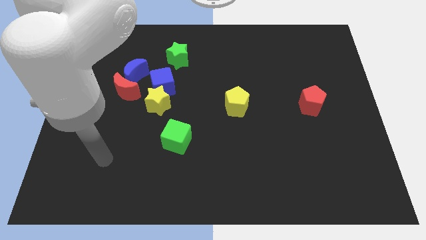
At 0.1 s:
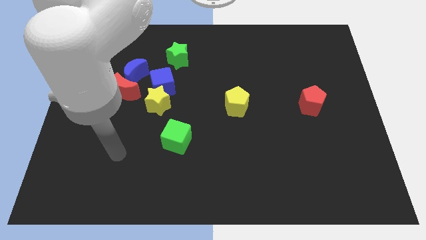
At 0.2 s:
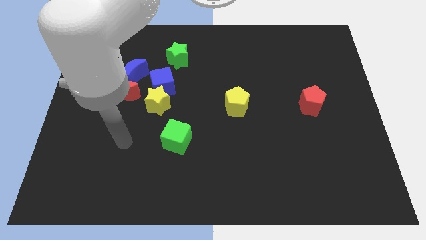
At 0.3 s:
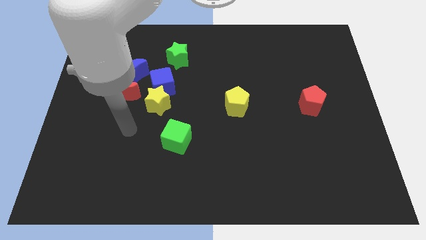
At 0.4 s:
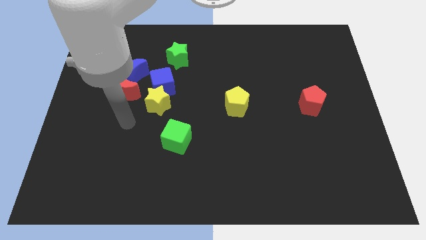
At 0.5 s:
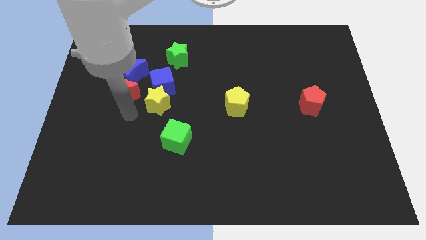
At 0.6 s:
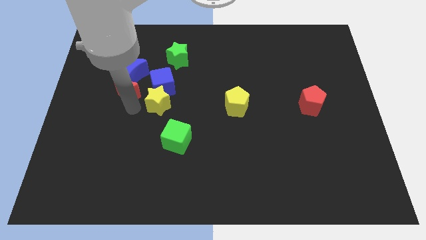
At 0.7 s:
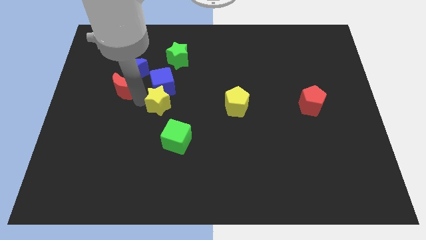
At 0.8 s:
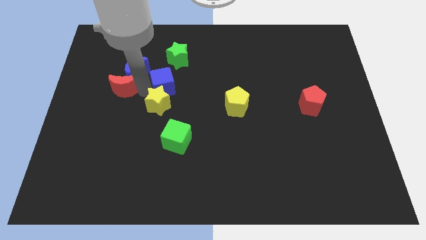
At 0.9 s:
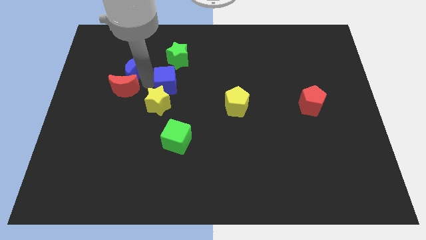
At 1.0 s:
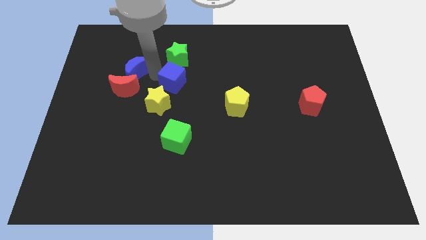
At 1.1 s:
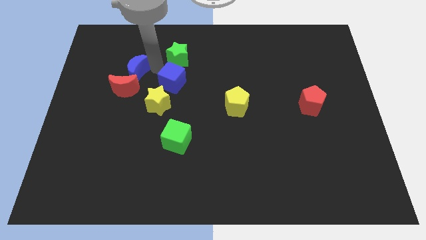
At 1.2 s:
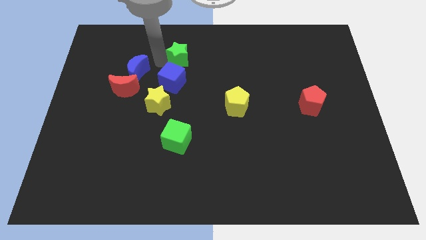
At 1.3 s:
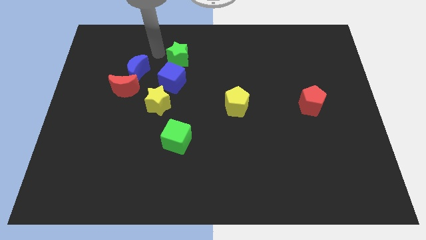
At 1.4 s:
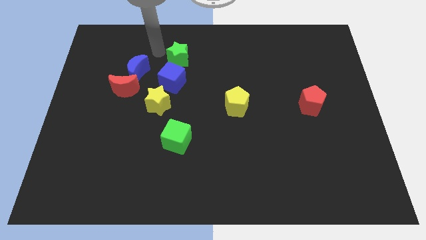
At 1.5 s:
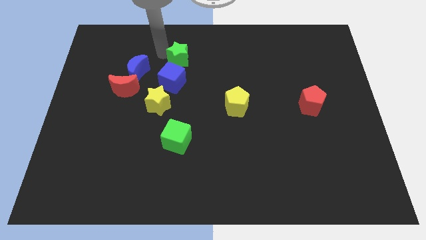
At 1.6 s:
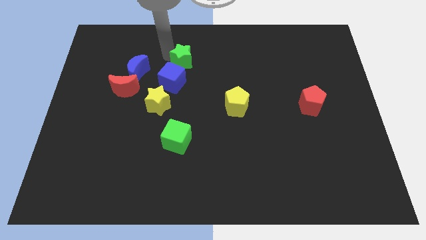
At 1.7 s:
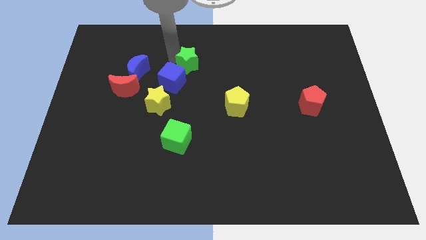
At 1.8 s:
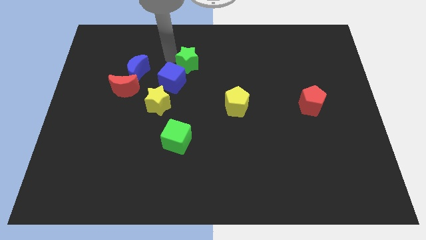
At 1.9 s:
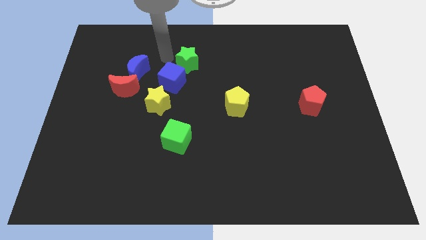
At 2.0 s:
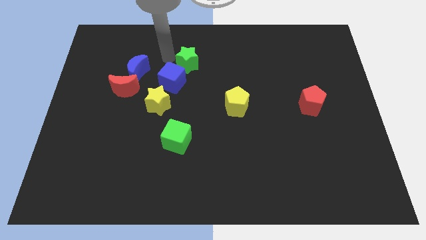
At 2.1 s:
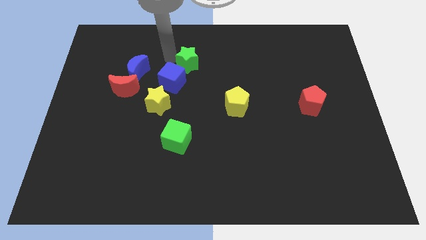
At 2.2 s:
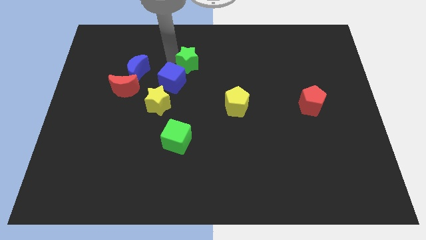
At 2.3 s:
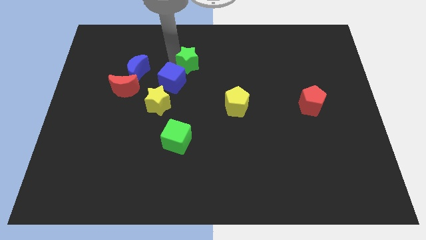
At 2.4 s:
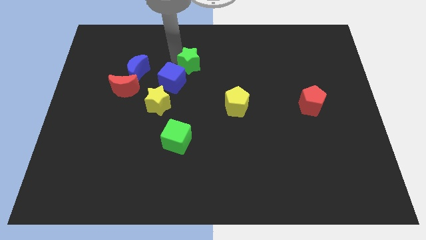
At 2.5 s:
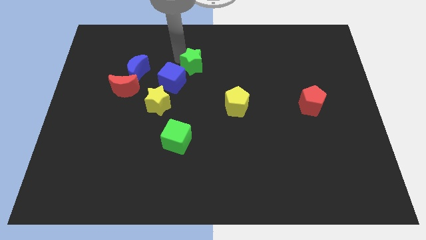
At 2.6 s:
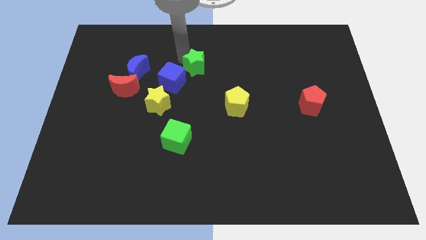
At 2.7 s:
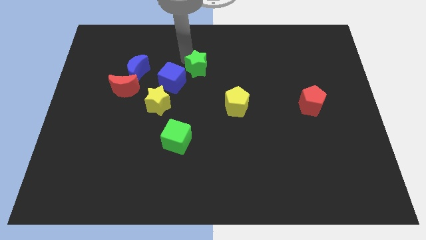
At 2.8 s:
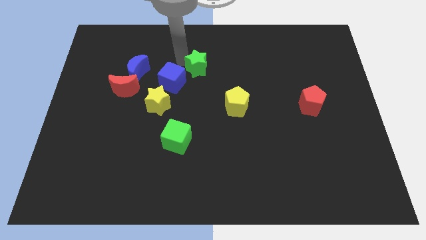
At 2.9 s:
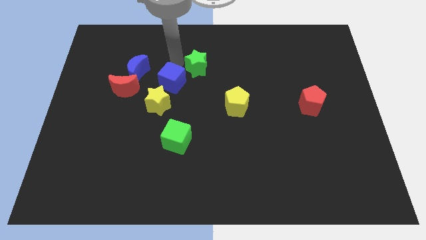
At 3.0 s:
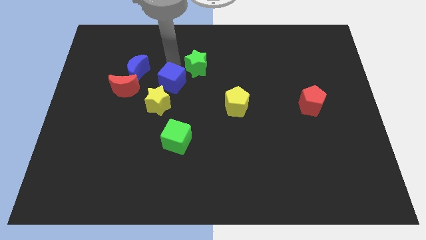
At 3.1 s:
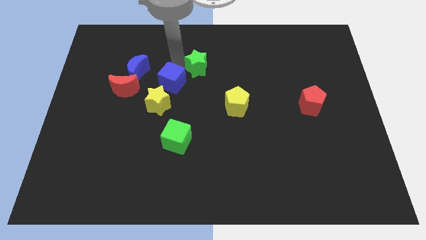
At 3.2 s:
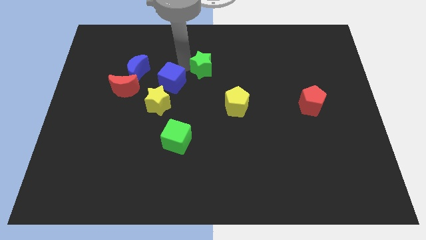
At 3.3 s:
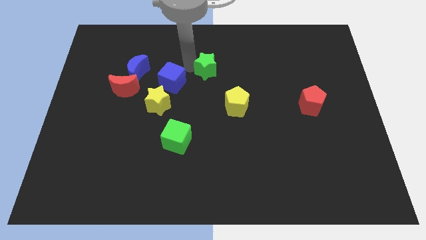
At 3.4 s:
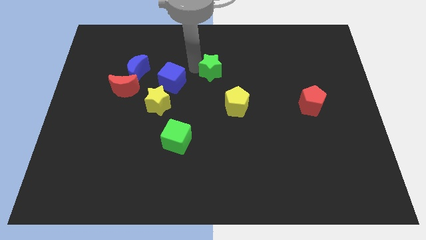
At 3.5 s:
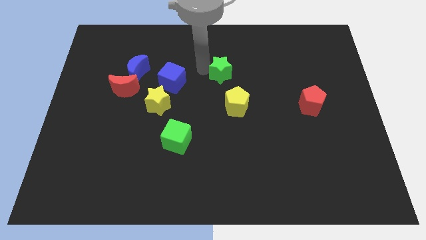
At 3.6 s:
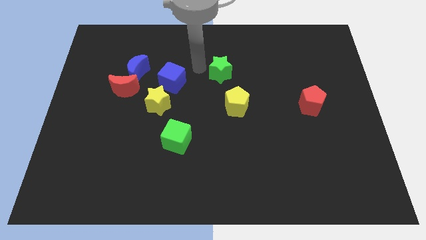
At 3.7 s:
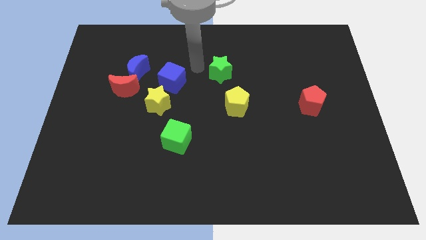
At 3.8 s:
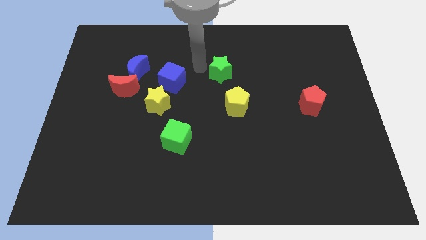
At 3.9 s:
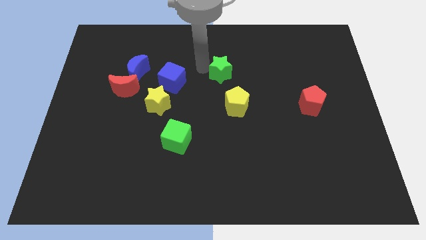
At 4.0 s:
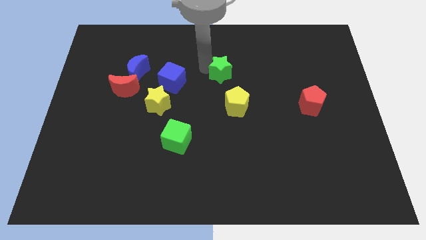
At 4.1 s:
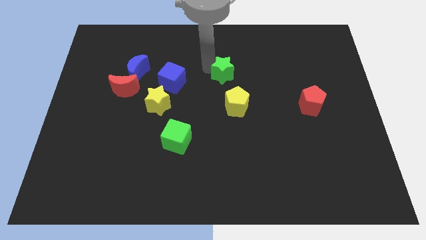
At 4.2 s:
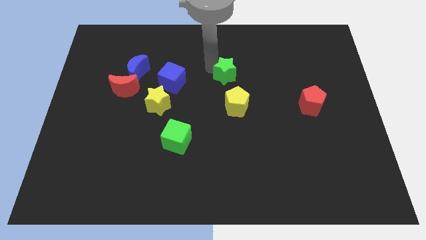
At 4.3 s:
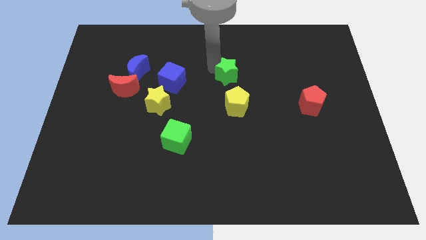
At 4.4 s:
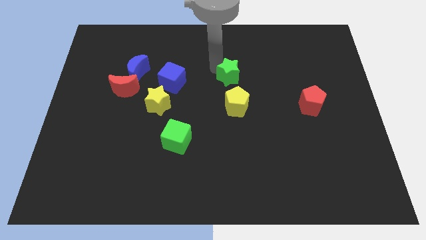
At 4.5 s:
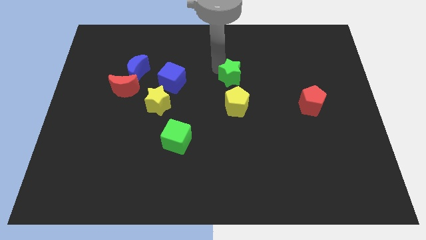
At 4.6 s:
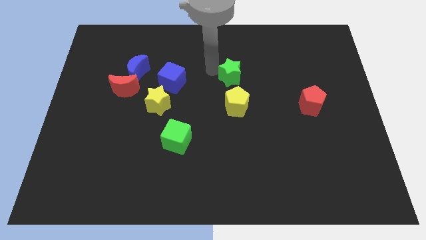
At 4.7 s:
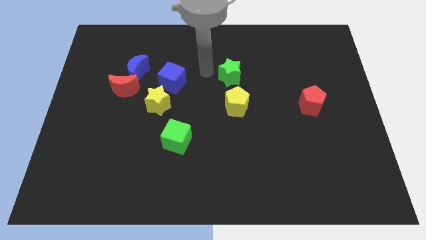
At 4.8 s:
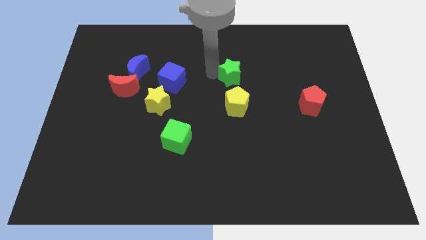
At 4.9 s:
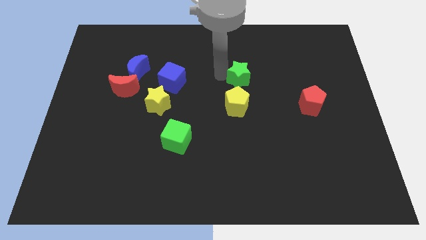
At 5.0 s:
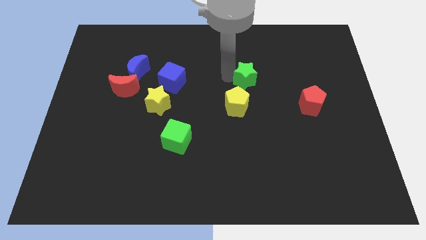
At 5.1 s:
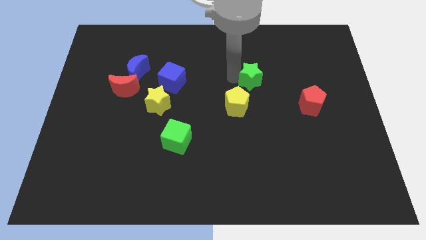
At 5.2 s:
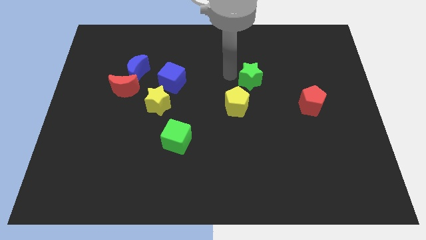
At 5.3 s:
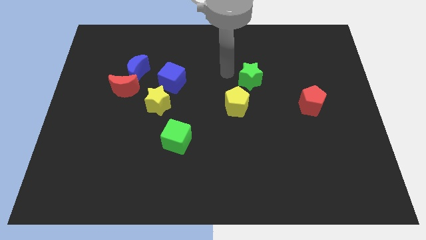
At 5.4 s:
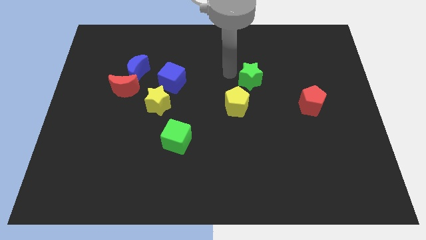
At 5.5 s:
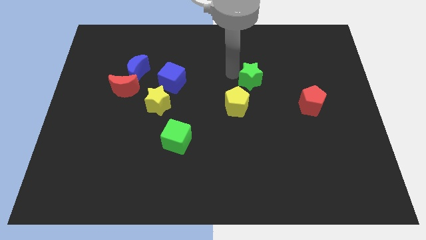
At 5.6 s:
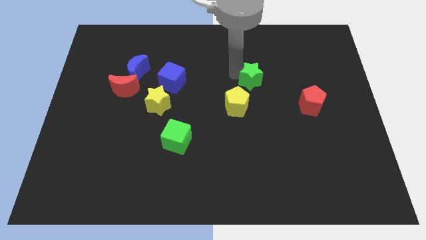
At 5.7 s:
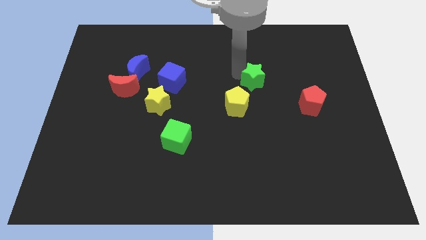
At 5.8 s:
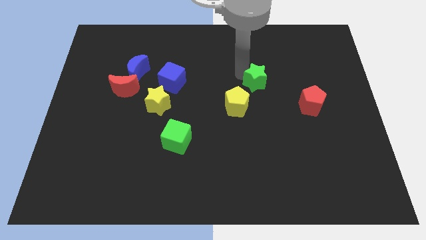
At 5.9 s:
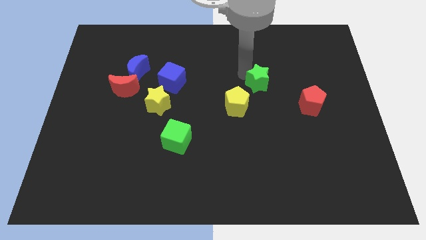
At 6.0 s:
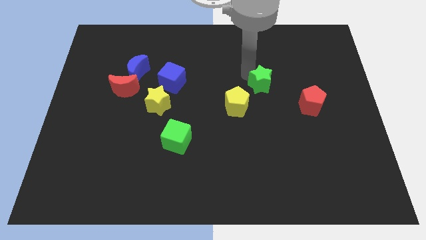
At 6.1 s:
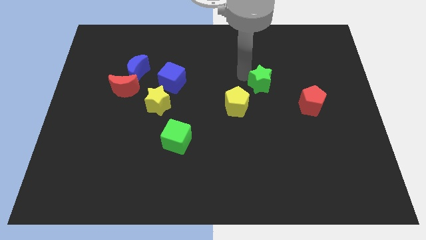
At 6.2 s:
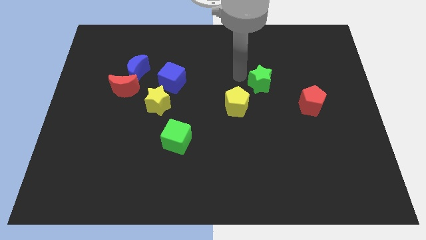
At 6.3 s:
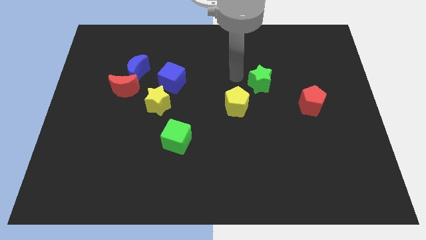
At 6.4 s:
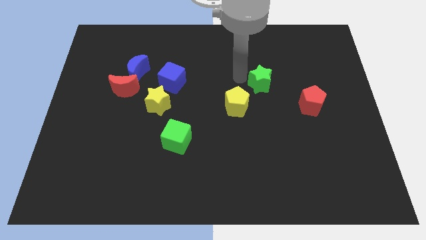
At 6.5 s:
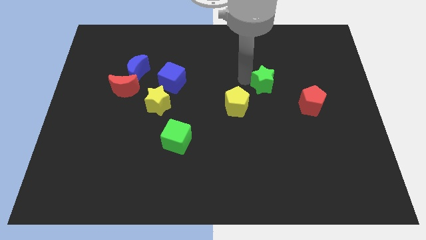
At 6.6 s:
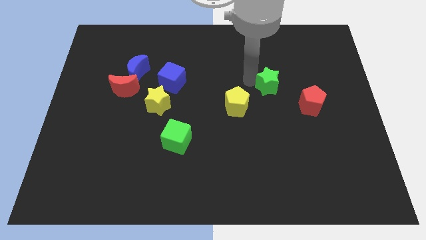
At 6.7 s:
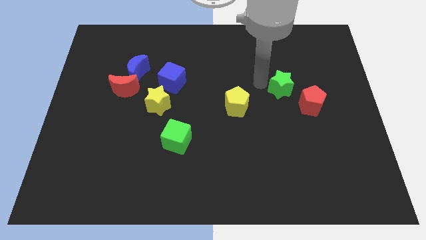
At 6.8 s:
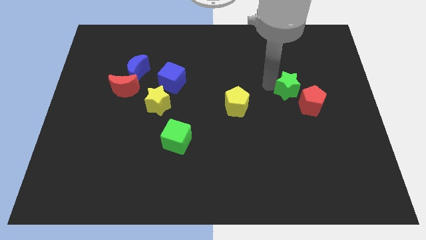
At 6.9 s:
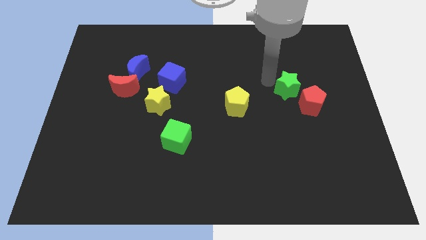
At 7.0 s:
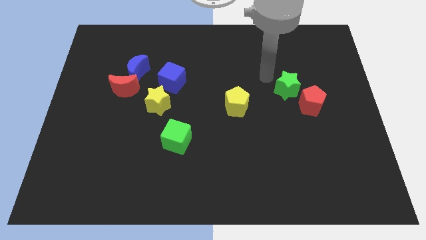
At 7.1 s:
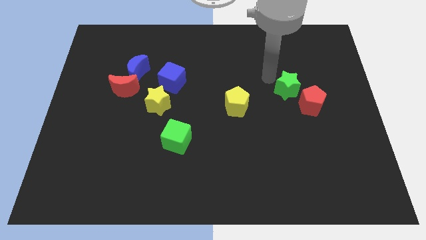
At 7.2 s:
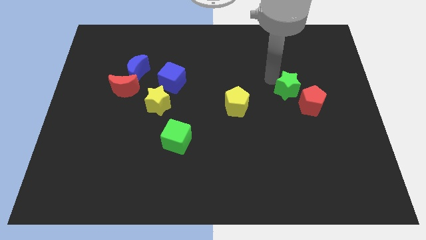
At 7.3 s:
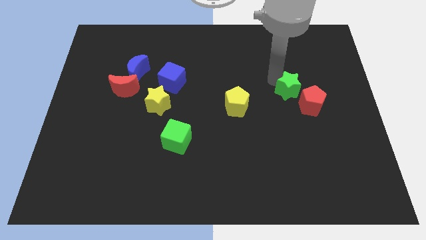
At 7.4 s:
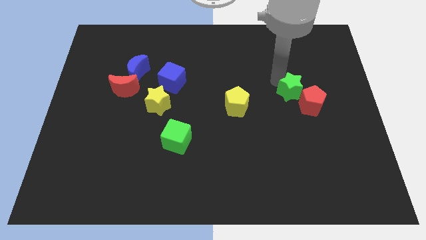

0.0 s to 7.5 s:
slide the green star close to the red pentagon
